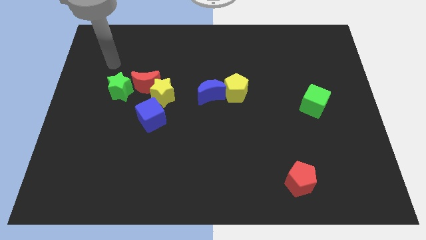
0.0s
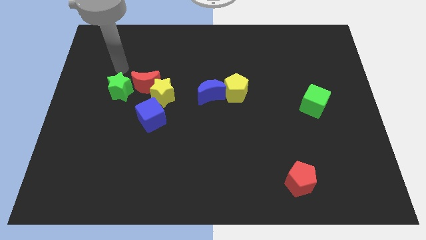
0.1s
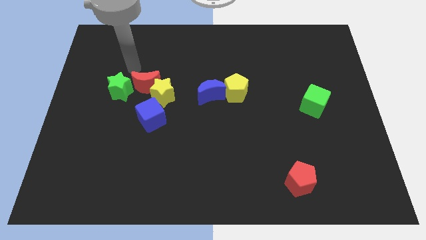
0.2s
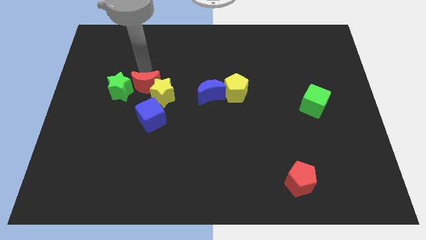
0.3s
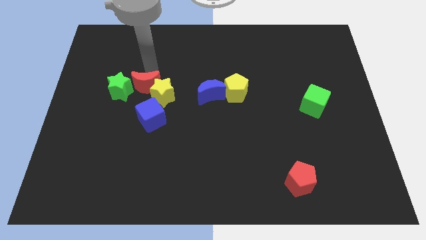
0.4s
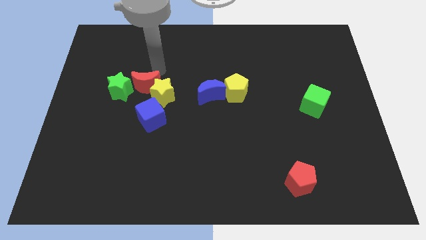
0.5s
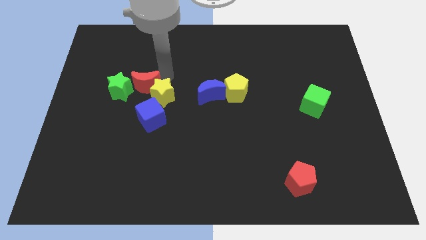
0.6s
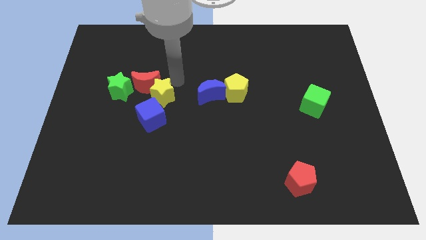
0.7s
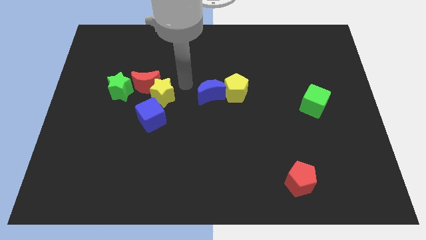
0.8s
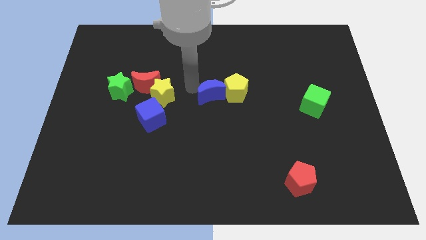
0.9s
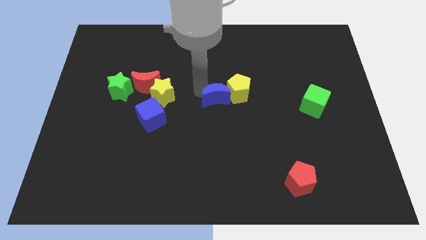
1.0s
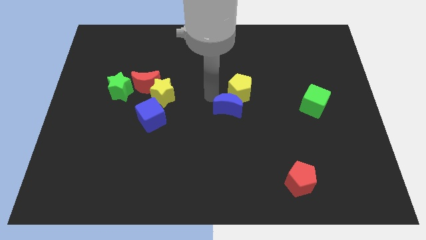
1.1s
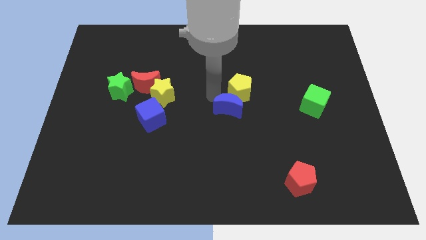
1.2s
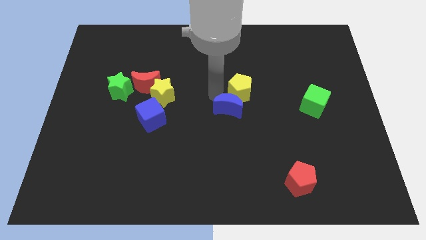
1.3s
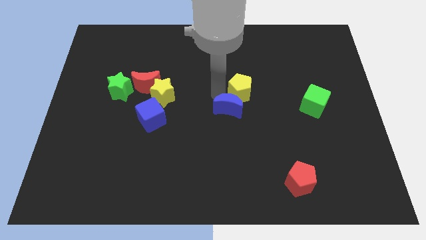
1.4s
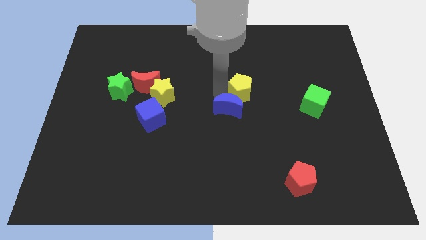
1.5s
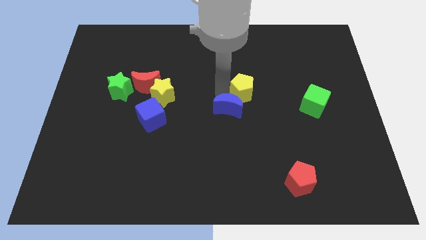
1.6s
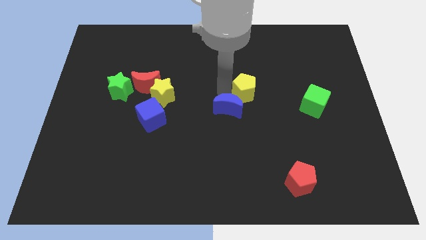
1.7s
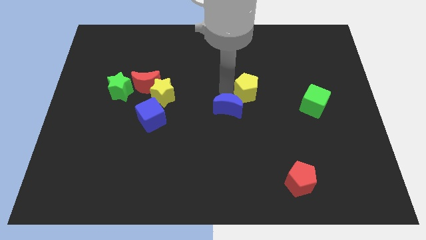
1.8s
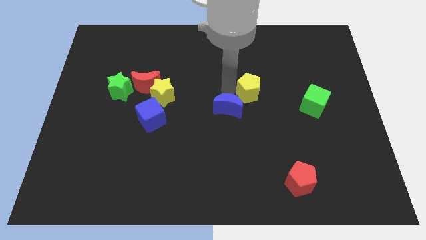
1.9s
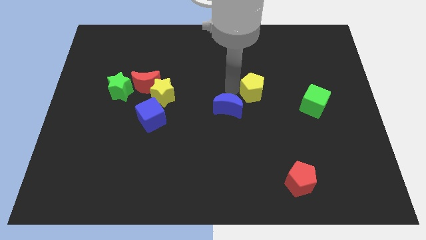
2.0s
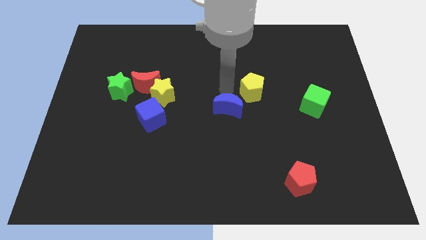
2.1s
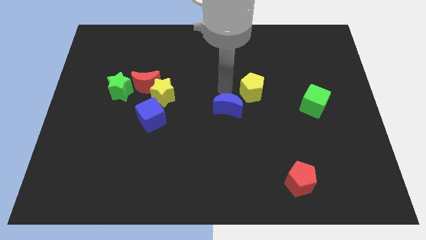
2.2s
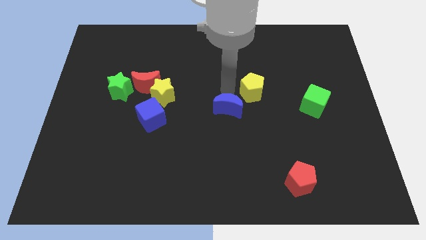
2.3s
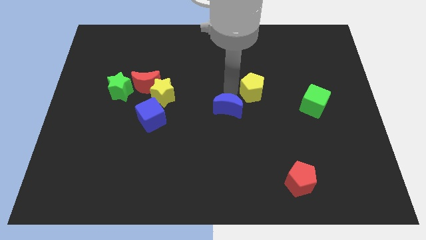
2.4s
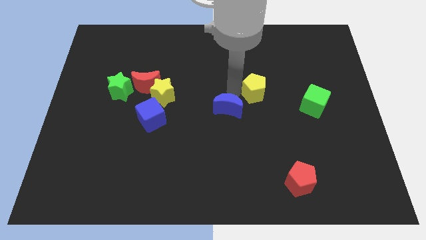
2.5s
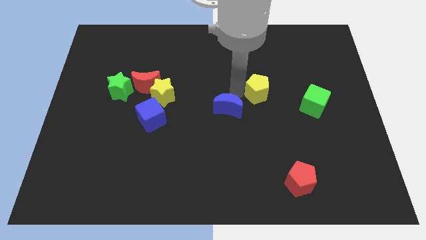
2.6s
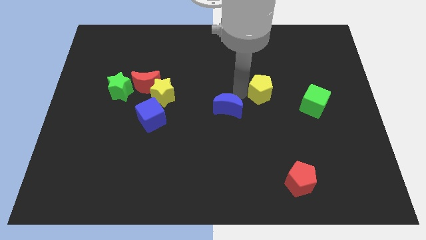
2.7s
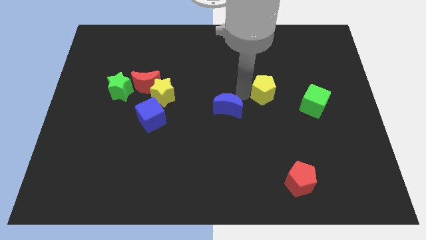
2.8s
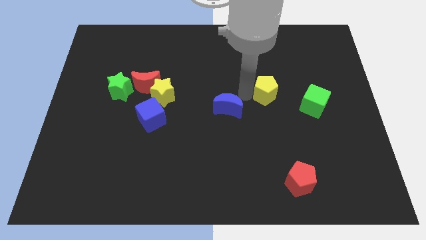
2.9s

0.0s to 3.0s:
slide the yellow pentagon right a bit

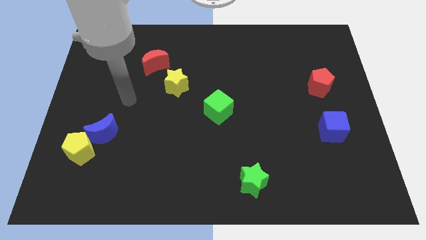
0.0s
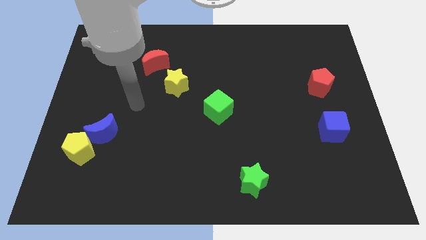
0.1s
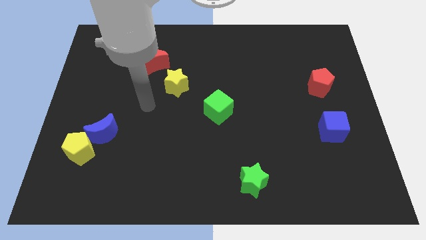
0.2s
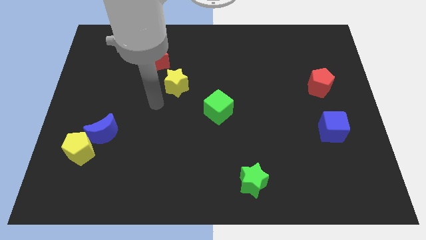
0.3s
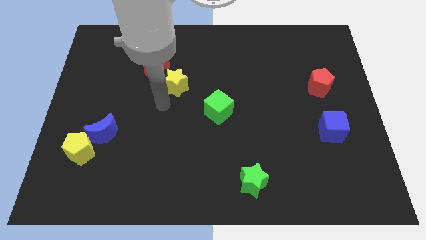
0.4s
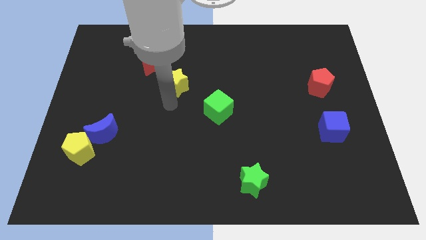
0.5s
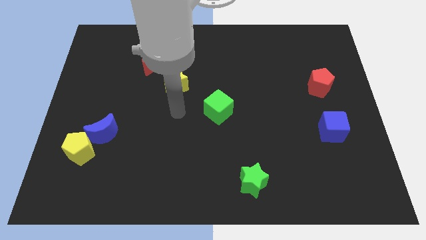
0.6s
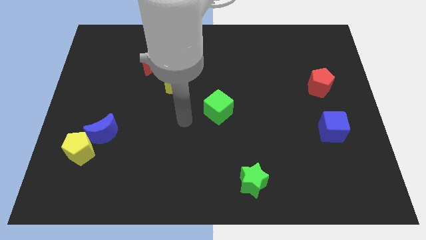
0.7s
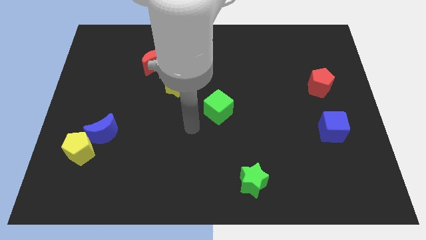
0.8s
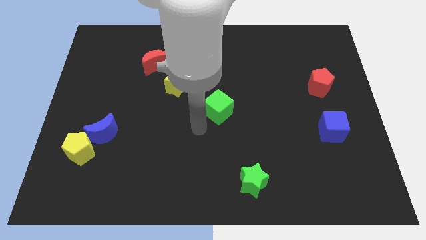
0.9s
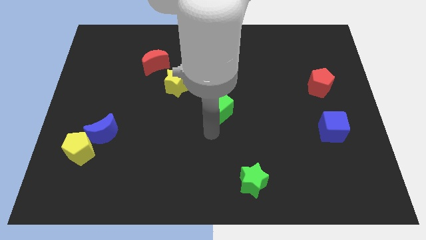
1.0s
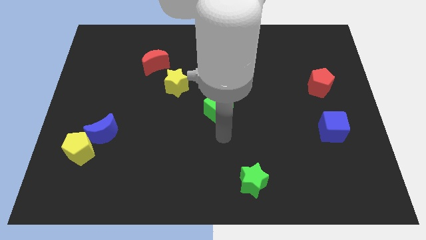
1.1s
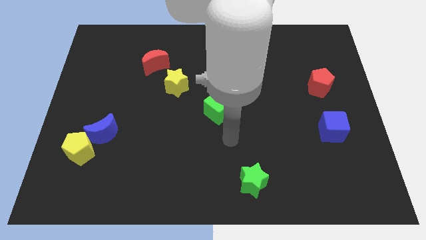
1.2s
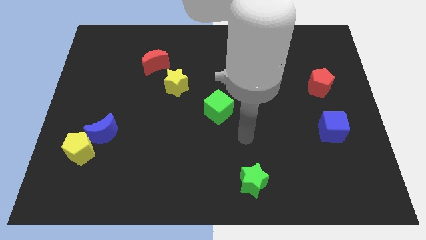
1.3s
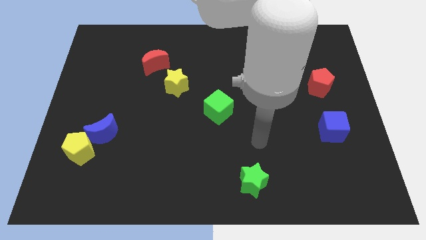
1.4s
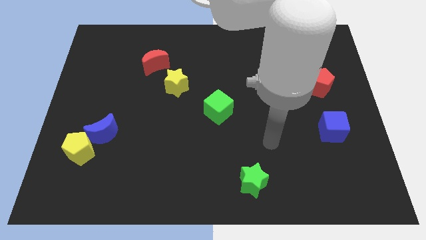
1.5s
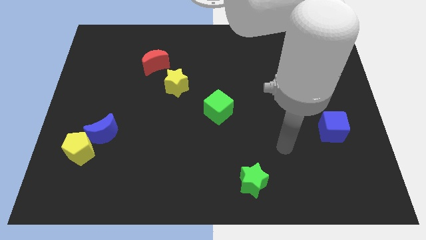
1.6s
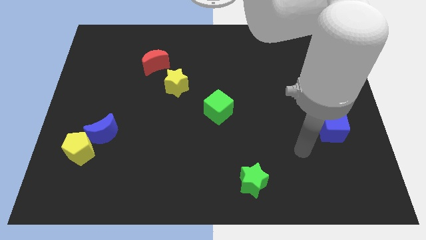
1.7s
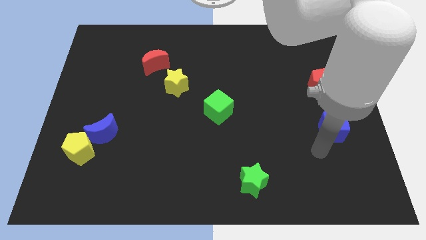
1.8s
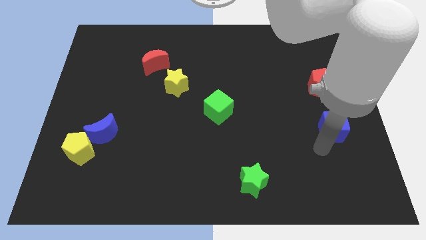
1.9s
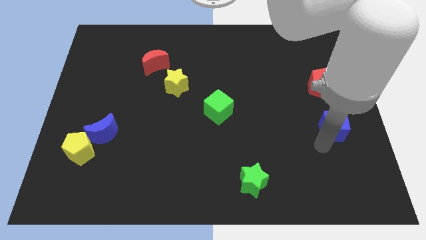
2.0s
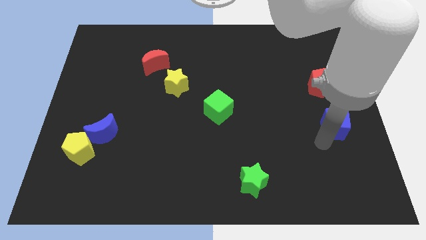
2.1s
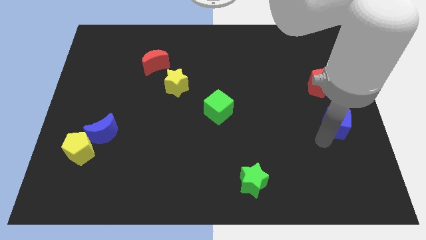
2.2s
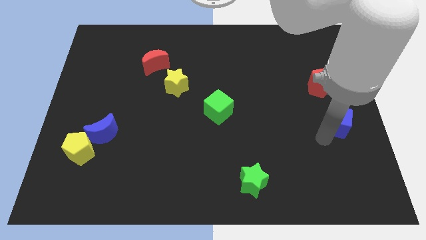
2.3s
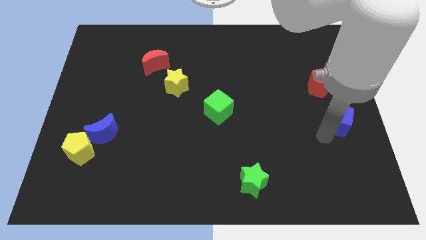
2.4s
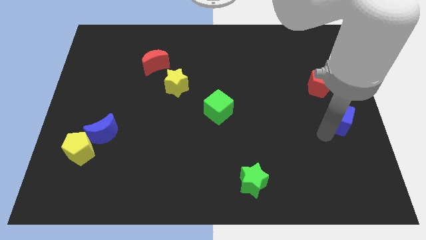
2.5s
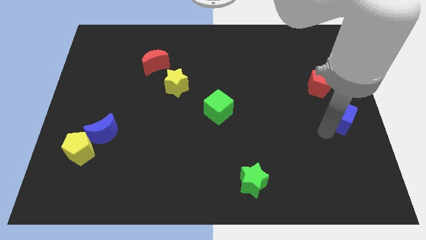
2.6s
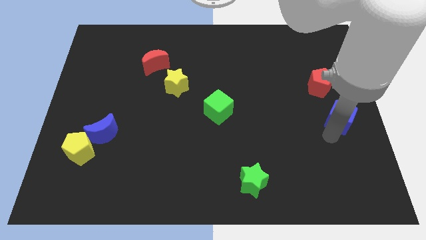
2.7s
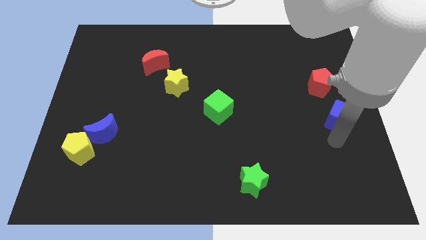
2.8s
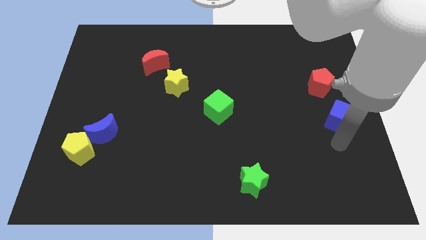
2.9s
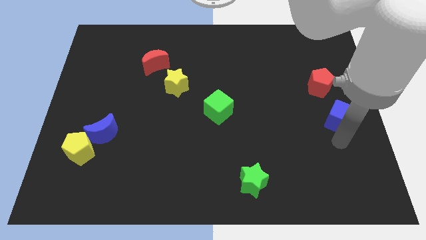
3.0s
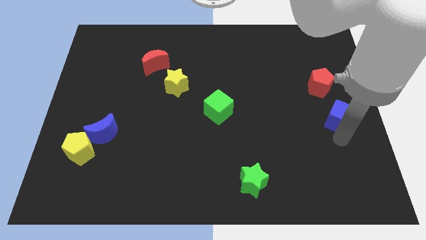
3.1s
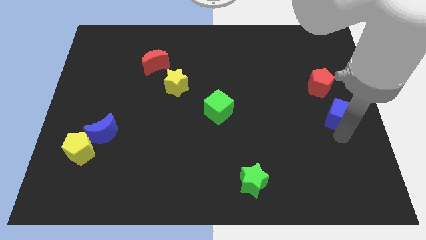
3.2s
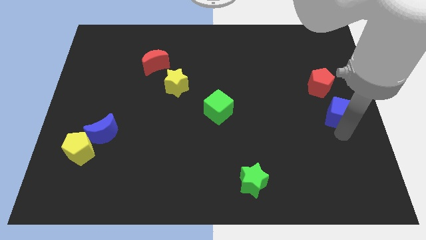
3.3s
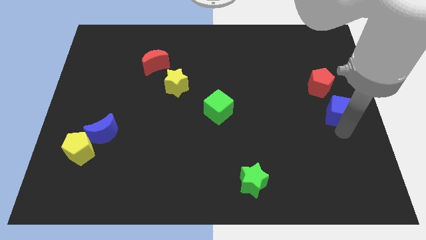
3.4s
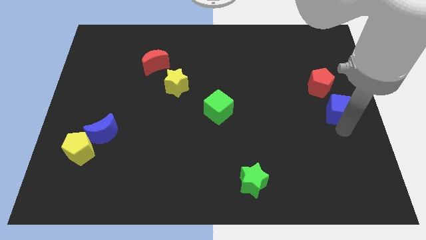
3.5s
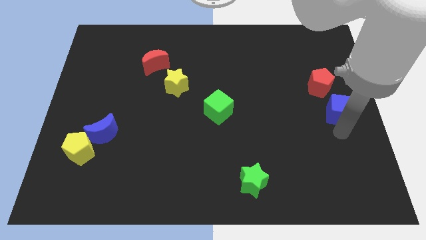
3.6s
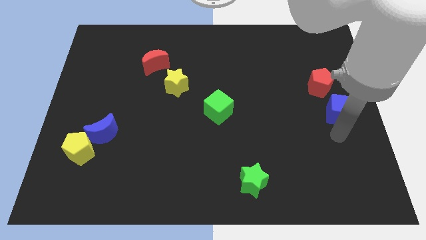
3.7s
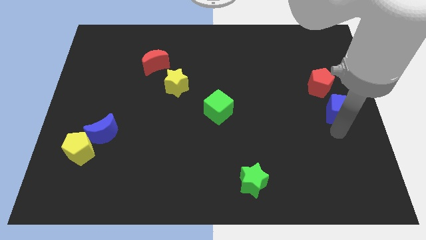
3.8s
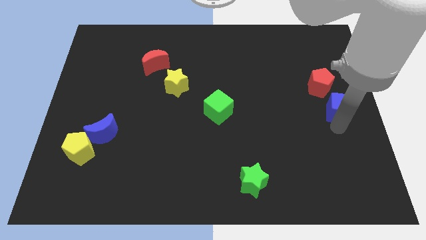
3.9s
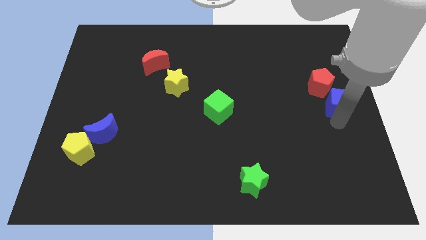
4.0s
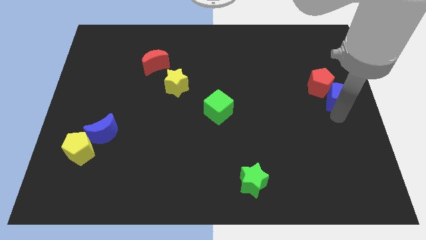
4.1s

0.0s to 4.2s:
slightly move the blue cube up

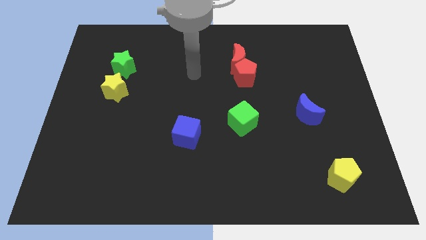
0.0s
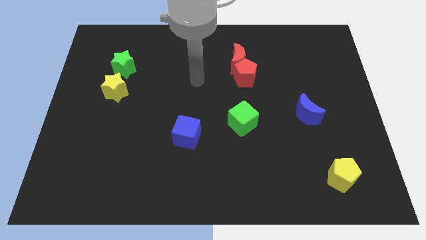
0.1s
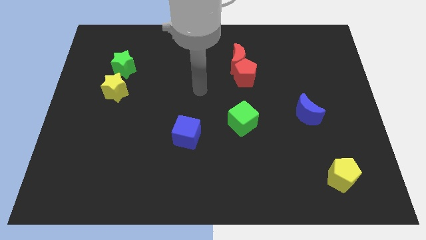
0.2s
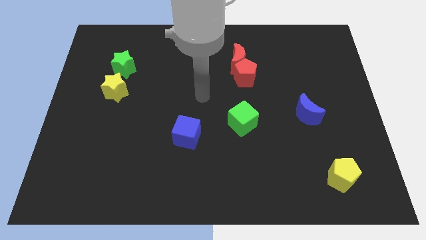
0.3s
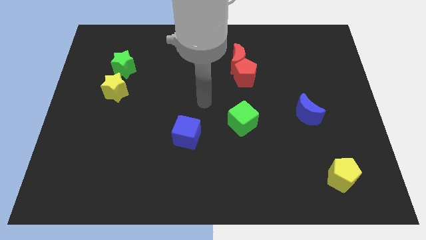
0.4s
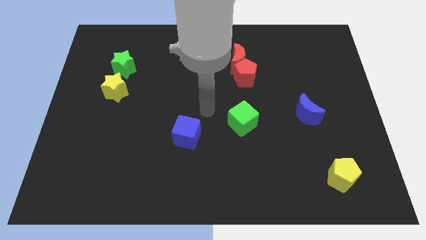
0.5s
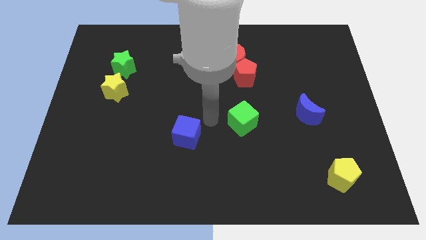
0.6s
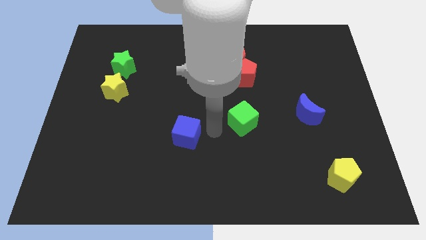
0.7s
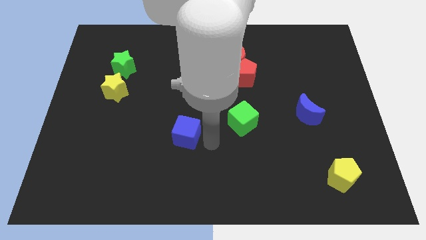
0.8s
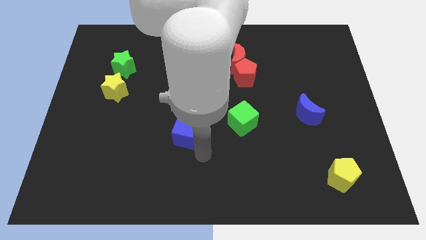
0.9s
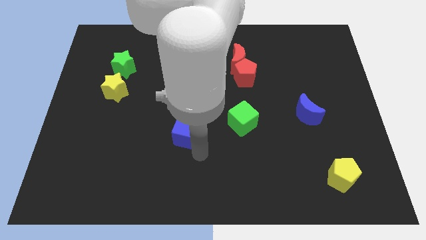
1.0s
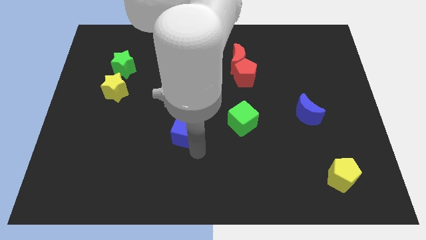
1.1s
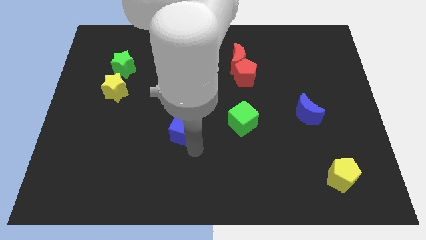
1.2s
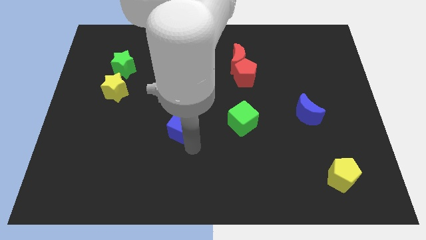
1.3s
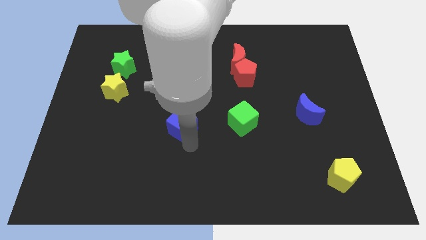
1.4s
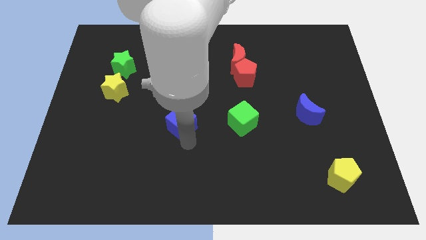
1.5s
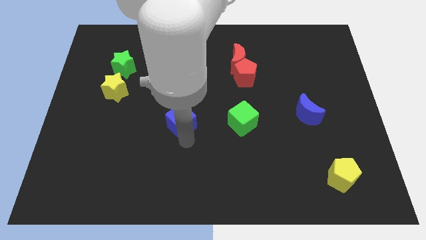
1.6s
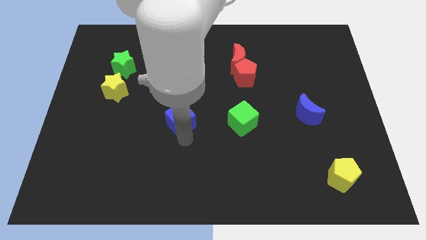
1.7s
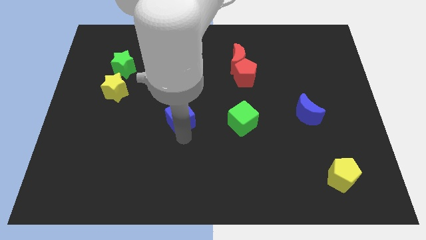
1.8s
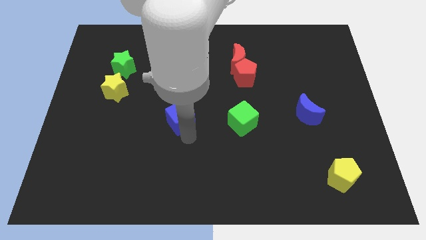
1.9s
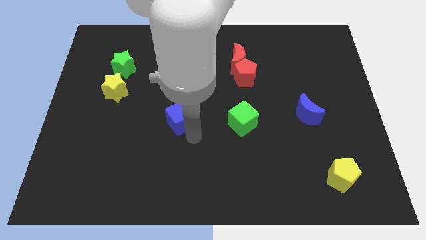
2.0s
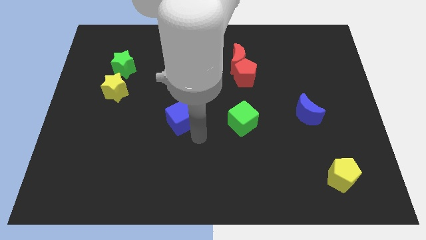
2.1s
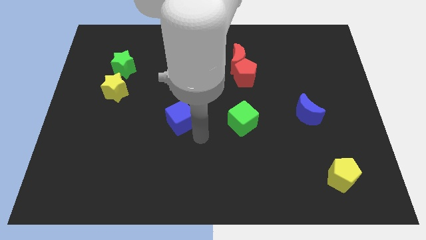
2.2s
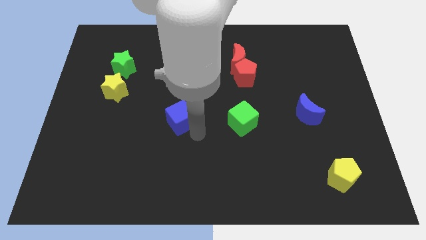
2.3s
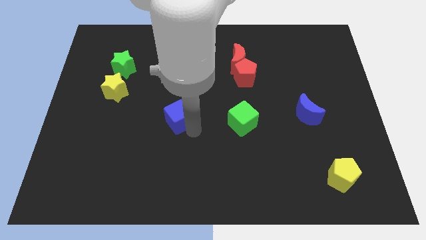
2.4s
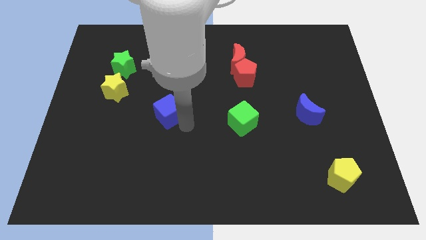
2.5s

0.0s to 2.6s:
slightly move the blue cube diagonally up and to the left
